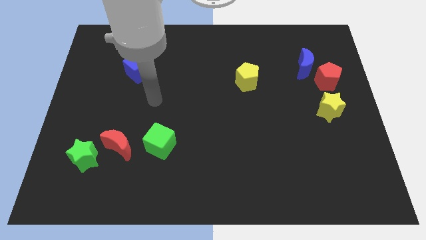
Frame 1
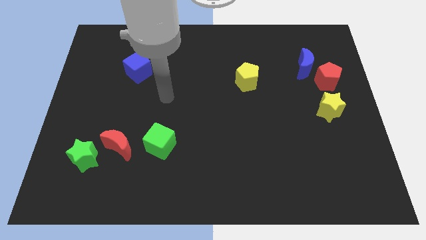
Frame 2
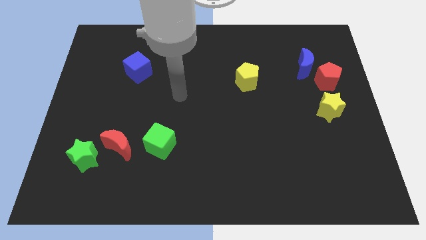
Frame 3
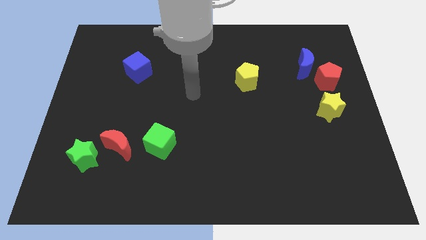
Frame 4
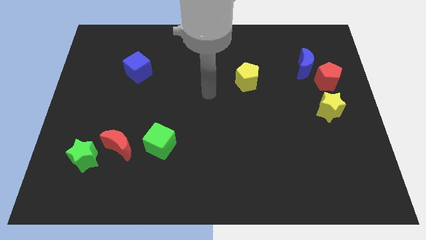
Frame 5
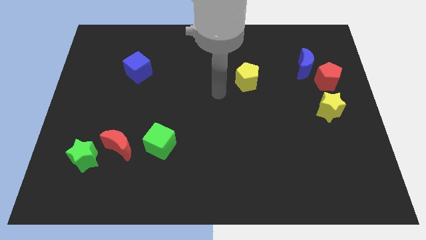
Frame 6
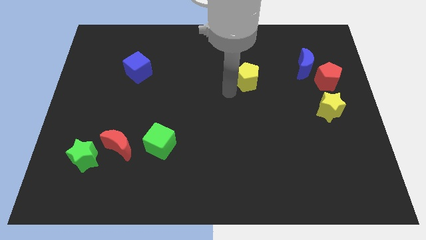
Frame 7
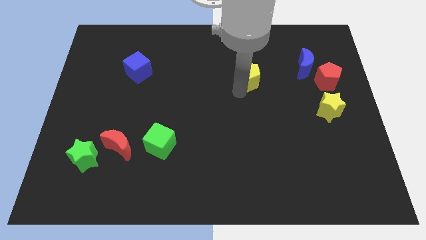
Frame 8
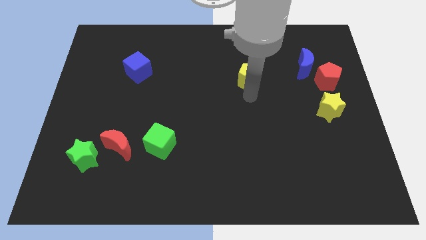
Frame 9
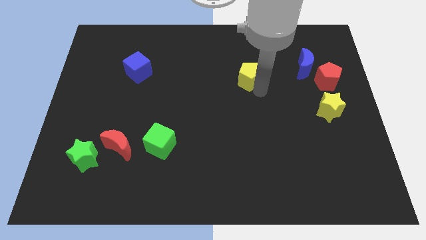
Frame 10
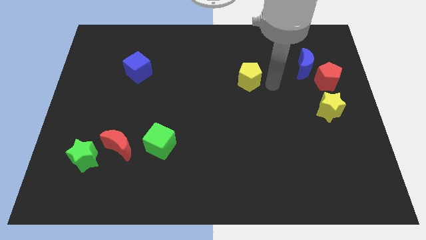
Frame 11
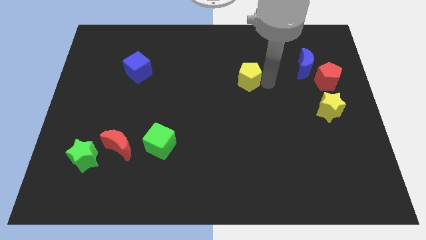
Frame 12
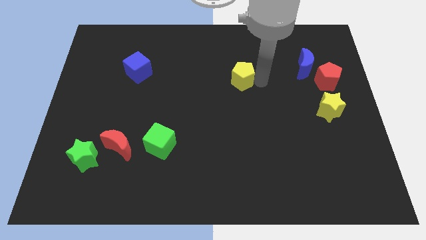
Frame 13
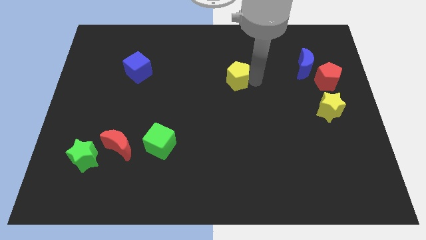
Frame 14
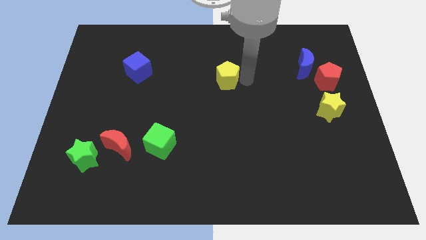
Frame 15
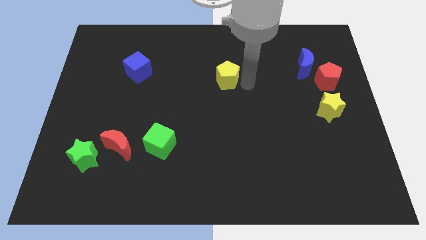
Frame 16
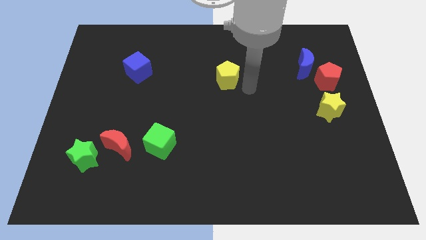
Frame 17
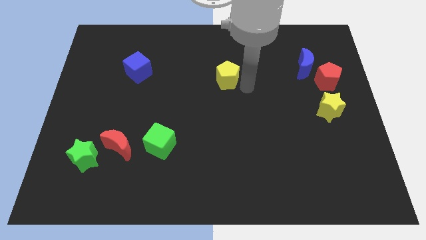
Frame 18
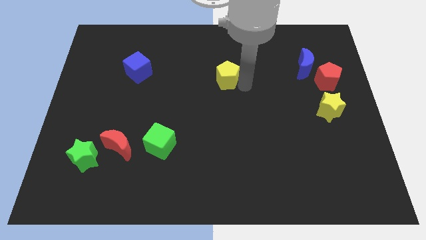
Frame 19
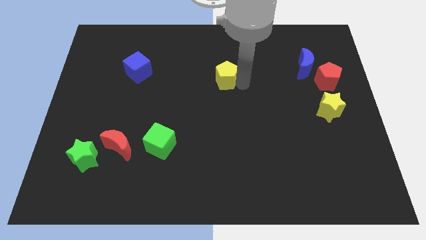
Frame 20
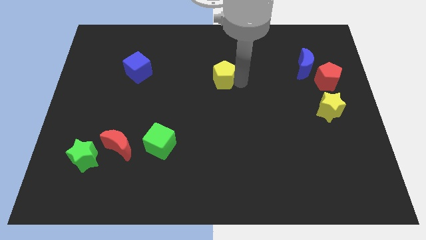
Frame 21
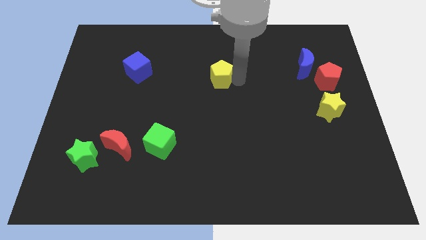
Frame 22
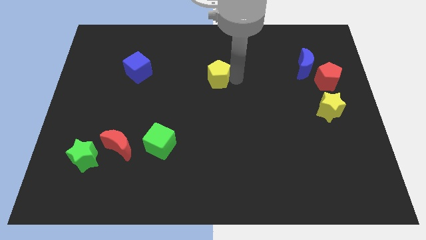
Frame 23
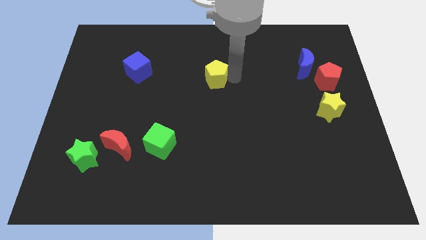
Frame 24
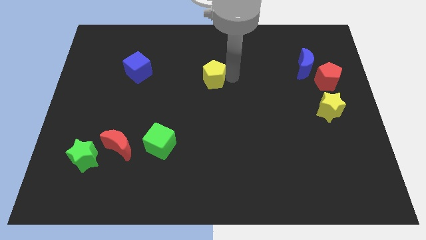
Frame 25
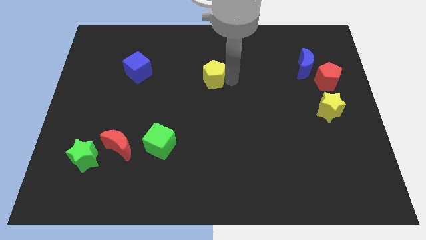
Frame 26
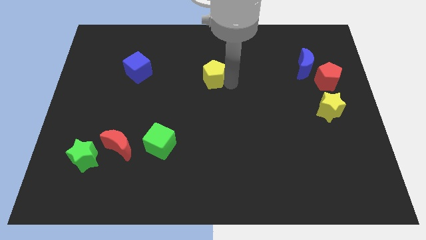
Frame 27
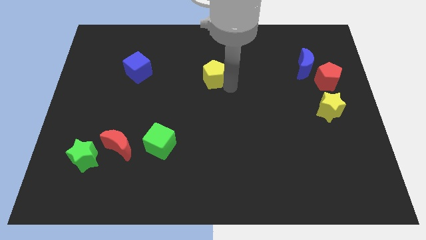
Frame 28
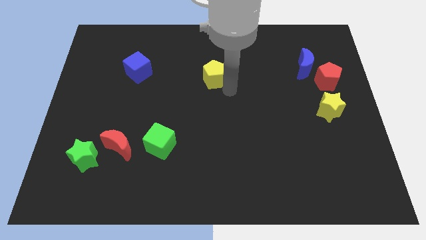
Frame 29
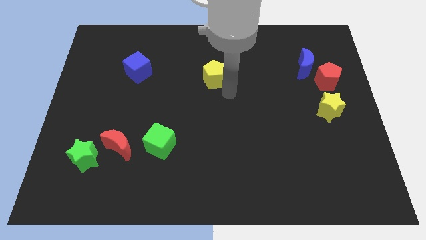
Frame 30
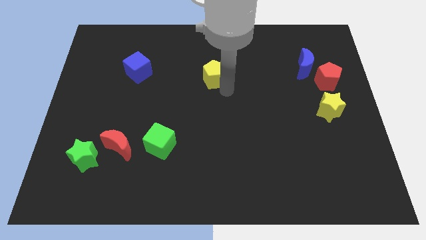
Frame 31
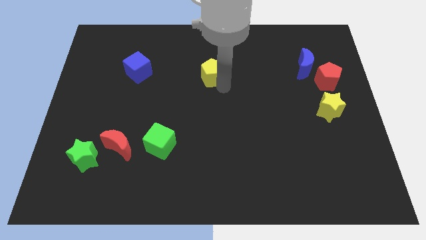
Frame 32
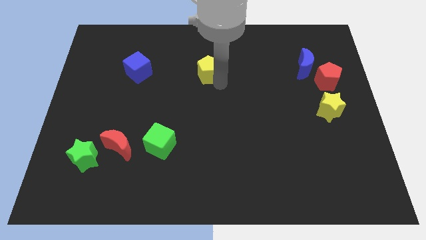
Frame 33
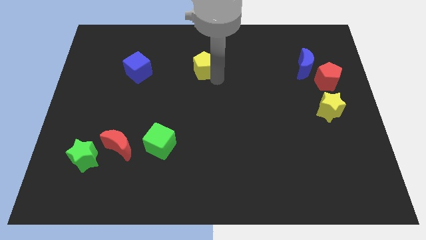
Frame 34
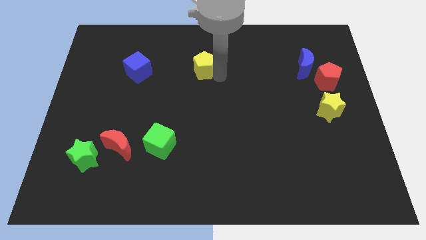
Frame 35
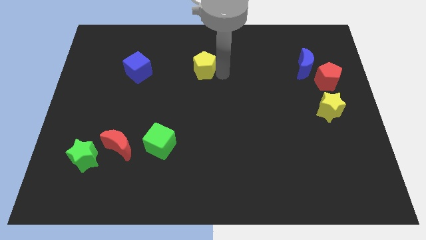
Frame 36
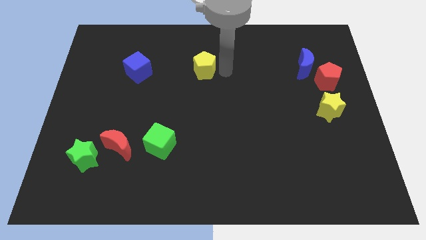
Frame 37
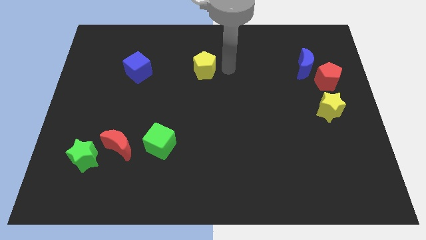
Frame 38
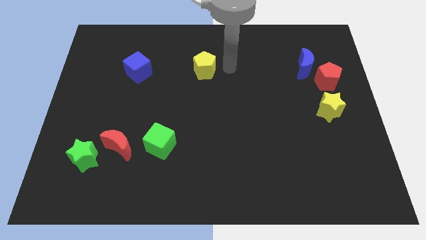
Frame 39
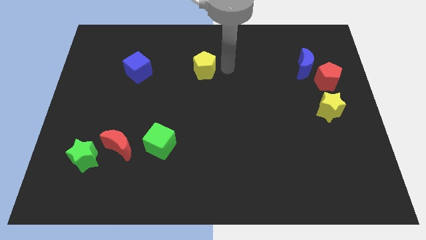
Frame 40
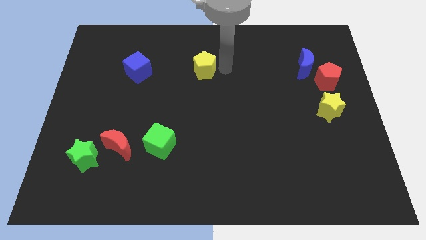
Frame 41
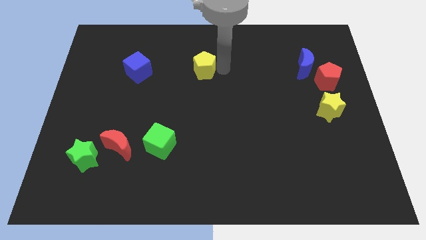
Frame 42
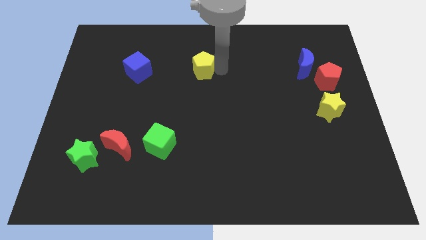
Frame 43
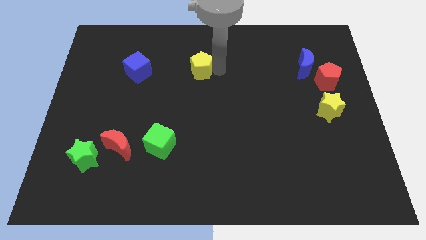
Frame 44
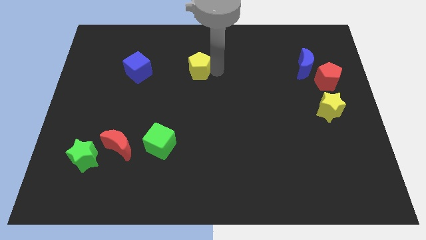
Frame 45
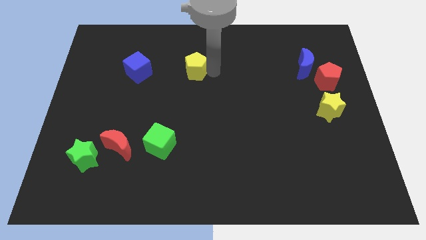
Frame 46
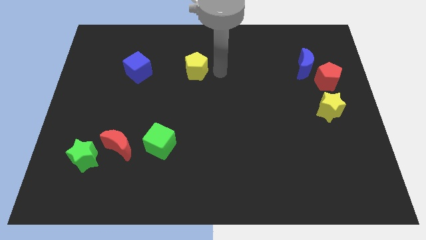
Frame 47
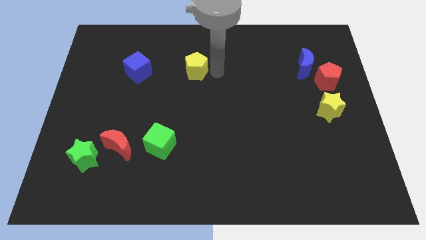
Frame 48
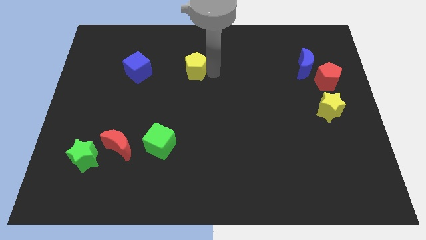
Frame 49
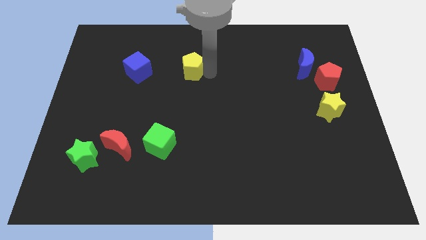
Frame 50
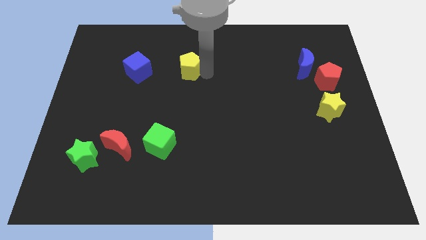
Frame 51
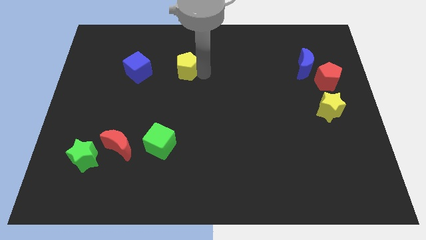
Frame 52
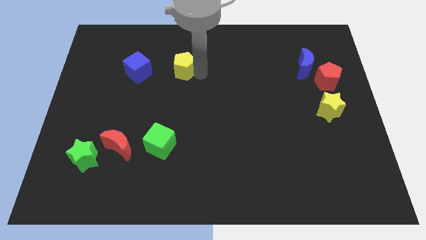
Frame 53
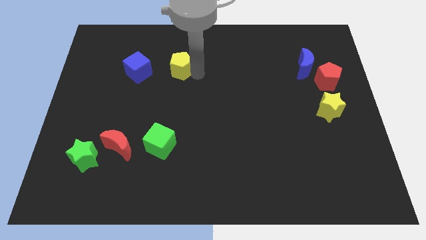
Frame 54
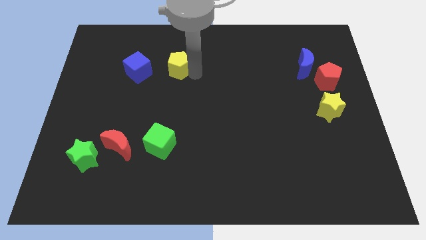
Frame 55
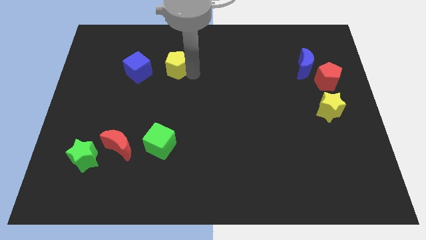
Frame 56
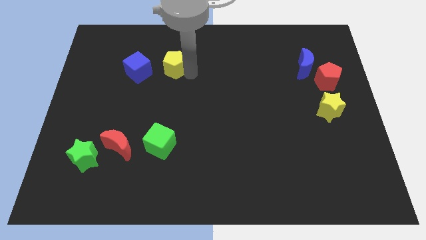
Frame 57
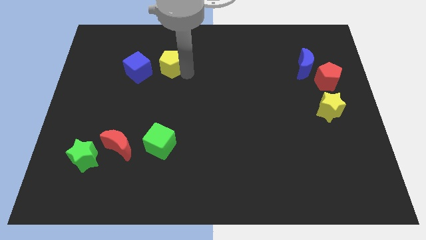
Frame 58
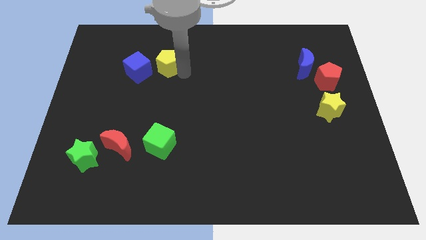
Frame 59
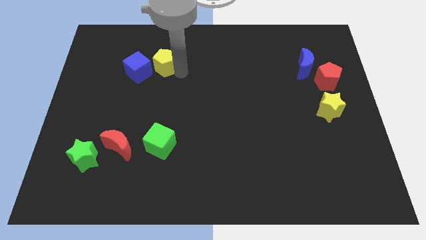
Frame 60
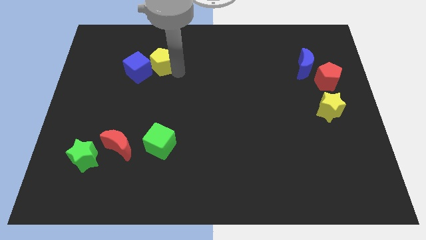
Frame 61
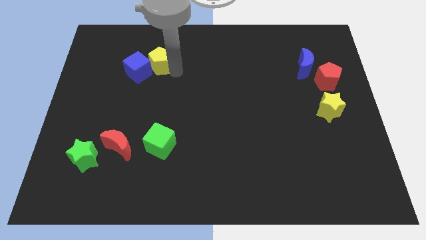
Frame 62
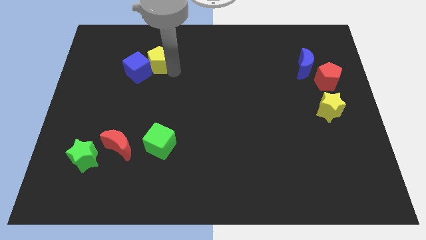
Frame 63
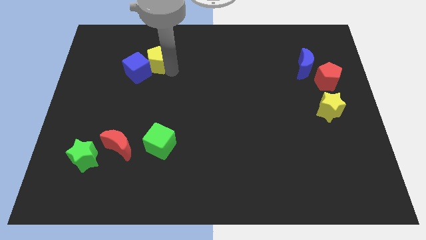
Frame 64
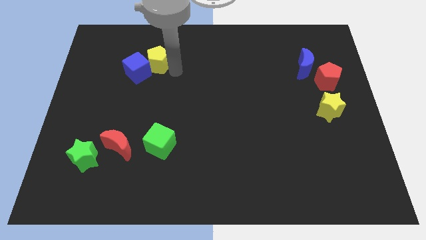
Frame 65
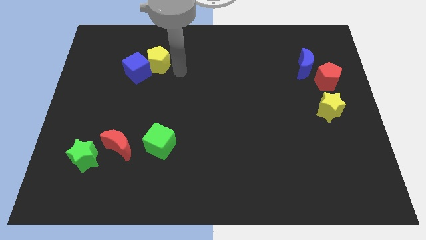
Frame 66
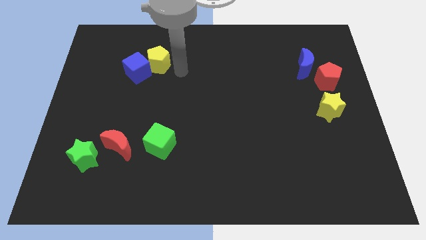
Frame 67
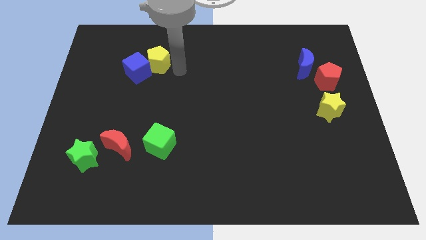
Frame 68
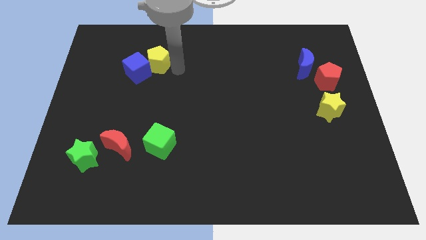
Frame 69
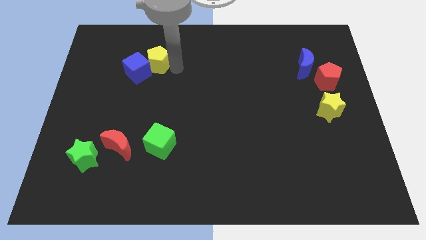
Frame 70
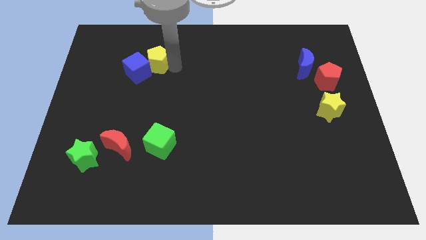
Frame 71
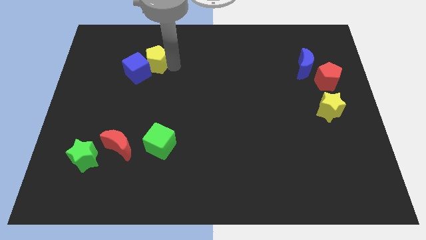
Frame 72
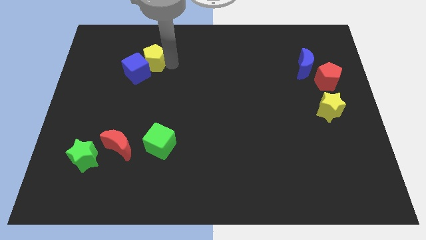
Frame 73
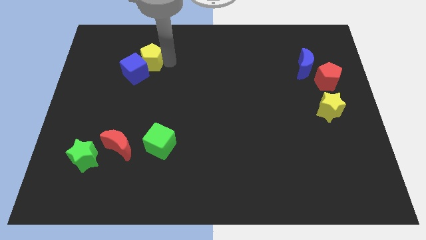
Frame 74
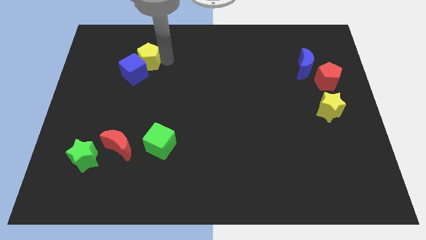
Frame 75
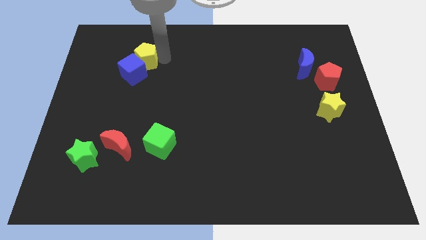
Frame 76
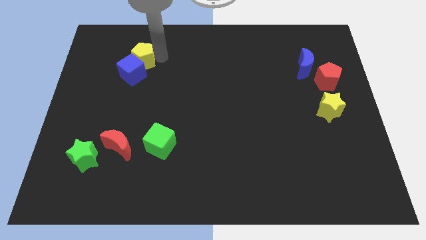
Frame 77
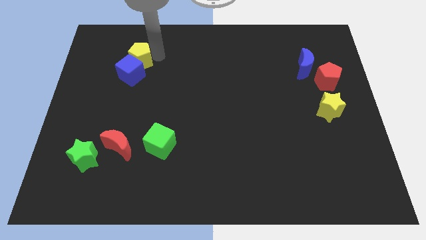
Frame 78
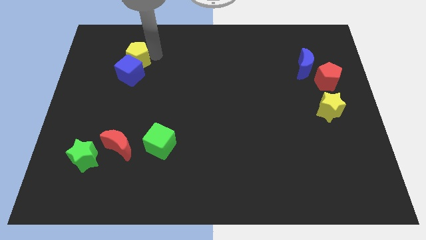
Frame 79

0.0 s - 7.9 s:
move the yellow pentagon to the top left of the blue cube
